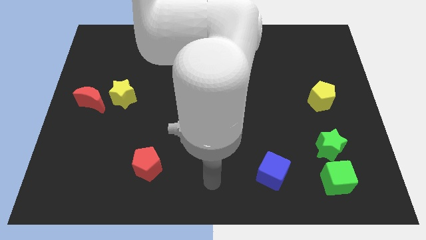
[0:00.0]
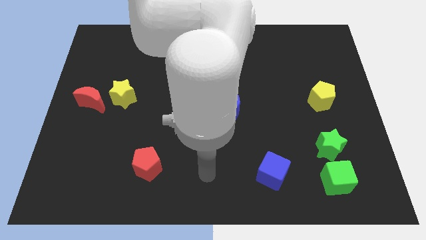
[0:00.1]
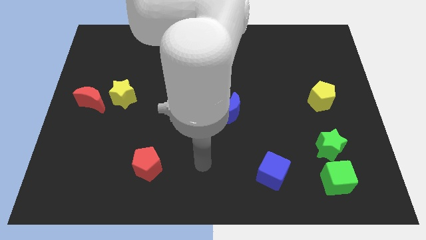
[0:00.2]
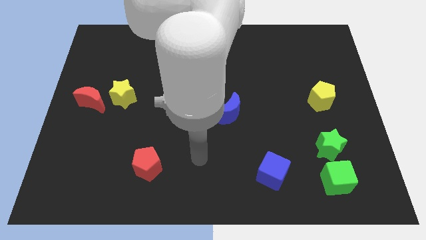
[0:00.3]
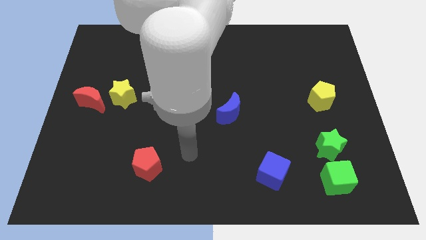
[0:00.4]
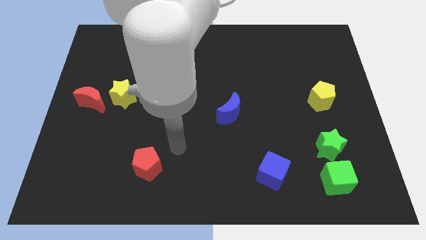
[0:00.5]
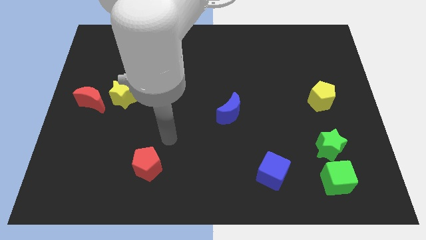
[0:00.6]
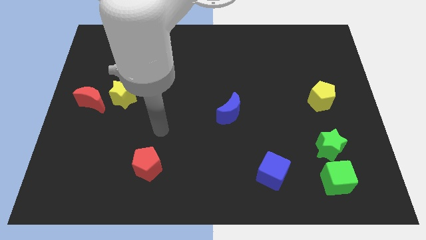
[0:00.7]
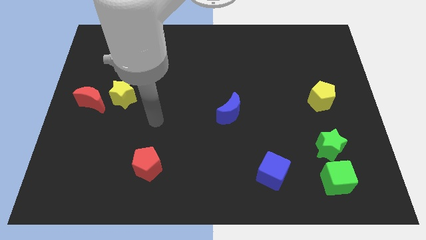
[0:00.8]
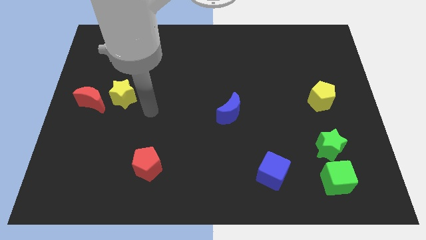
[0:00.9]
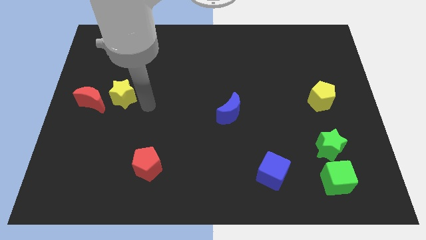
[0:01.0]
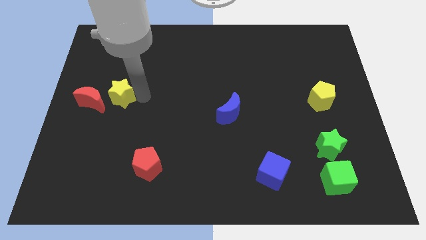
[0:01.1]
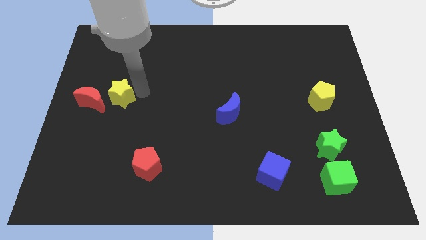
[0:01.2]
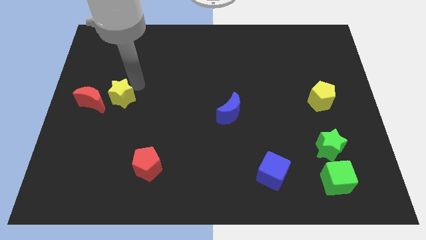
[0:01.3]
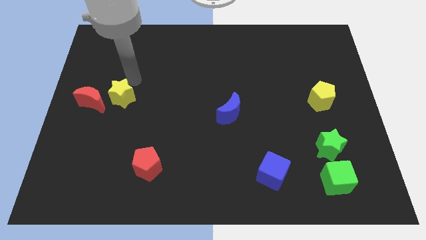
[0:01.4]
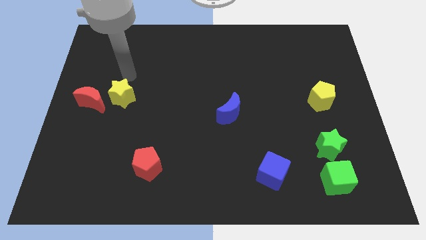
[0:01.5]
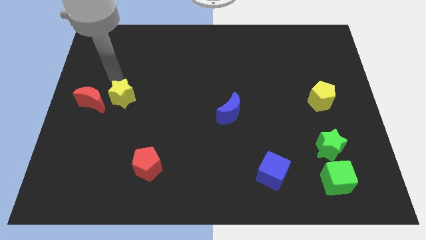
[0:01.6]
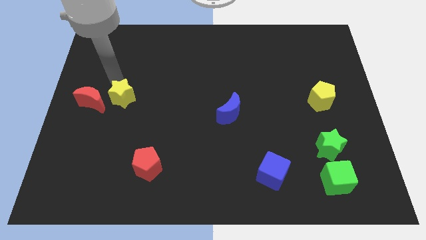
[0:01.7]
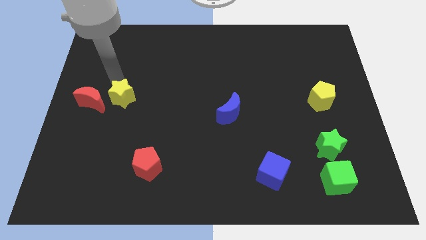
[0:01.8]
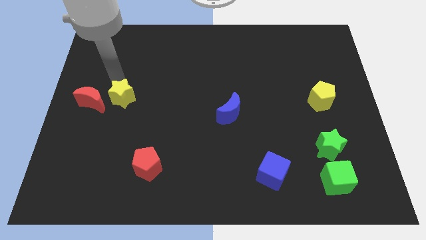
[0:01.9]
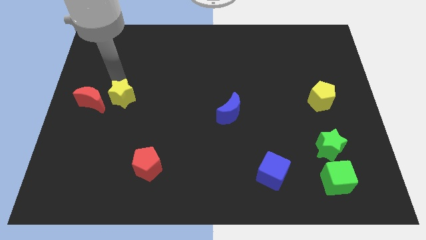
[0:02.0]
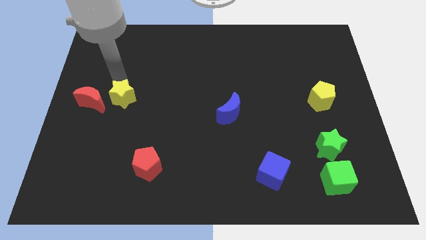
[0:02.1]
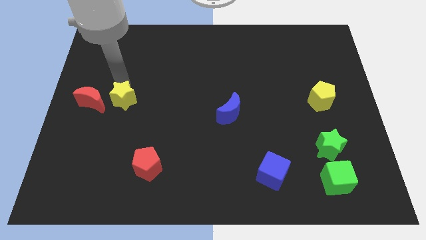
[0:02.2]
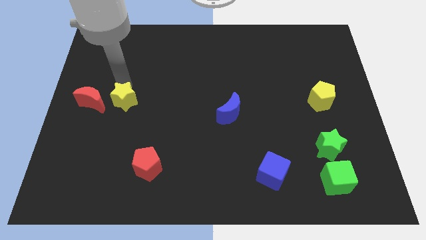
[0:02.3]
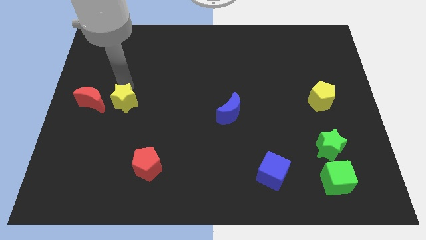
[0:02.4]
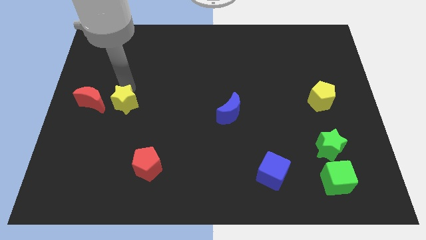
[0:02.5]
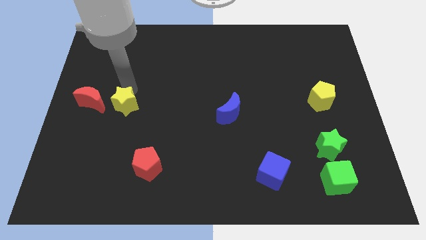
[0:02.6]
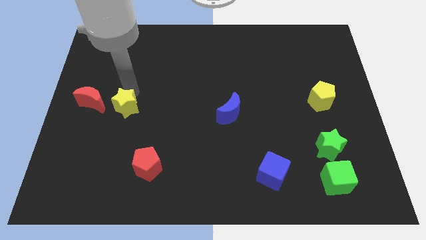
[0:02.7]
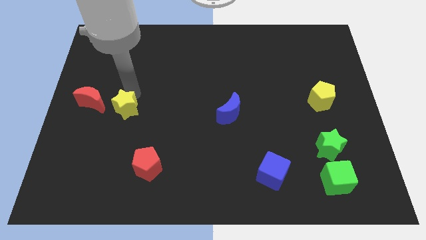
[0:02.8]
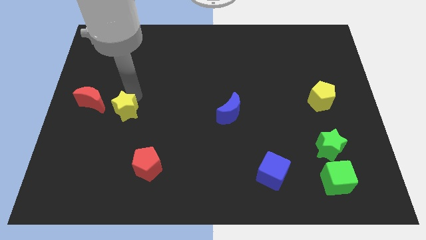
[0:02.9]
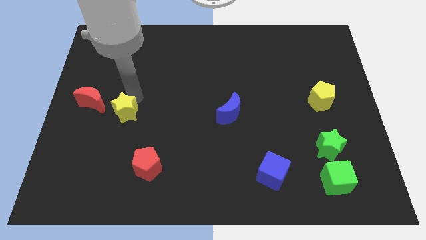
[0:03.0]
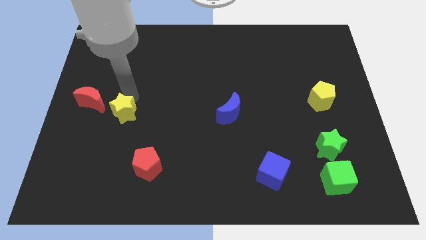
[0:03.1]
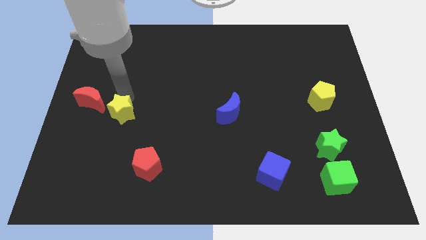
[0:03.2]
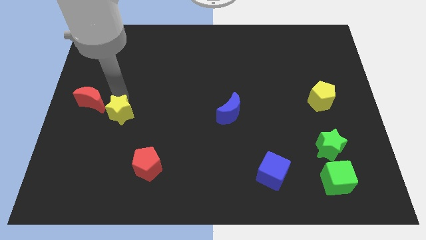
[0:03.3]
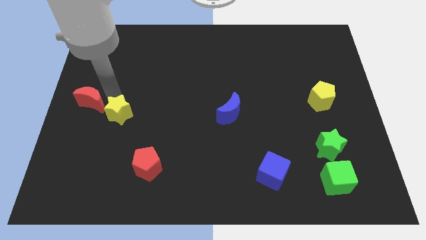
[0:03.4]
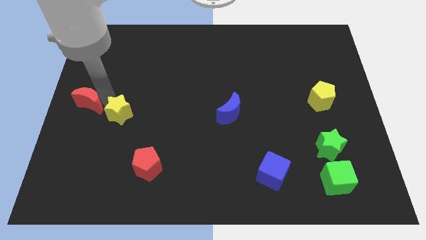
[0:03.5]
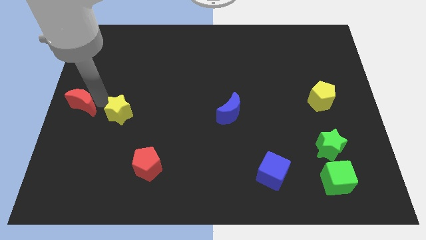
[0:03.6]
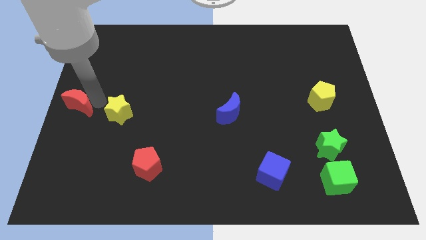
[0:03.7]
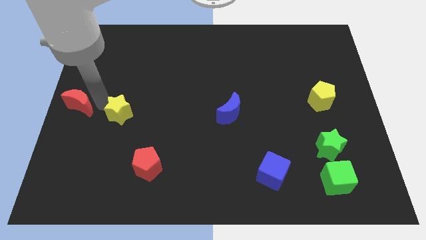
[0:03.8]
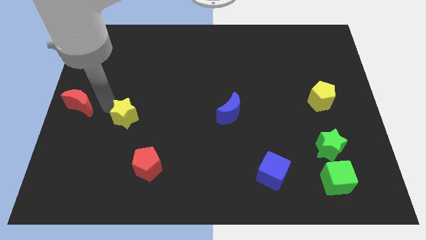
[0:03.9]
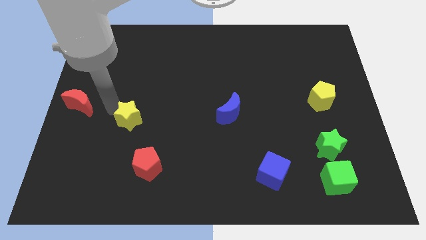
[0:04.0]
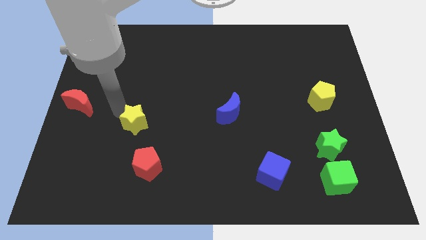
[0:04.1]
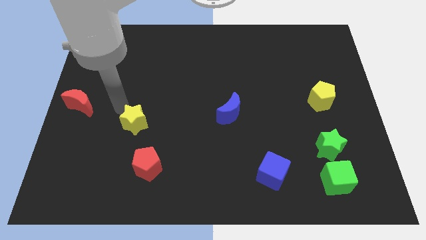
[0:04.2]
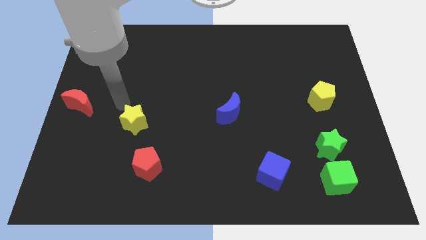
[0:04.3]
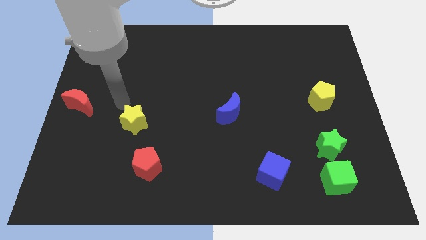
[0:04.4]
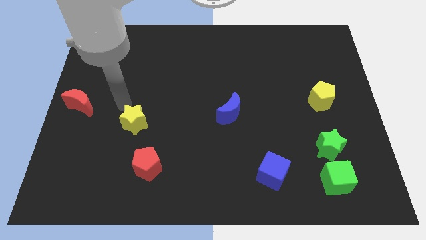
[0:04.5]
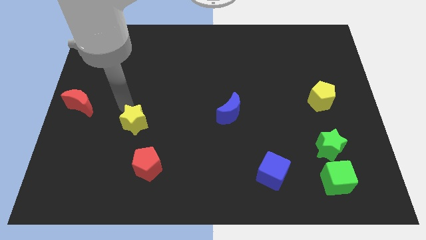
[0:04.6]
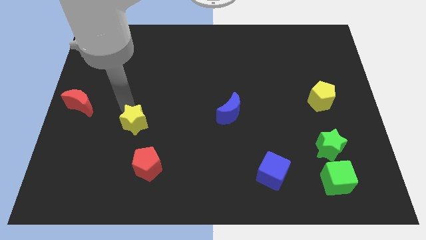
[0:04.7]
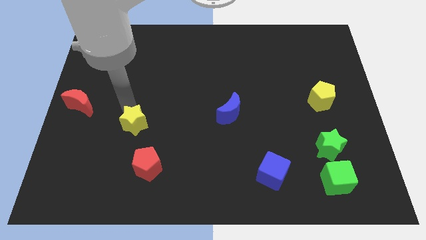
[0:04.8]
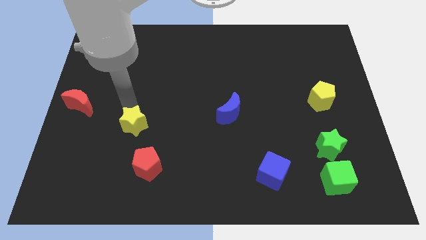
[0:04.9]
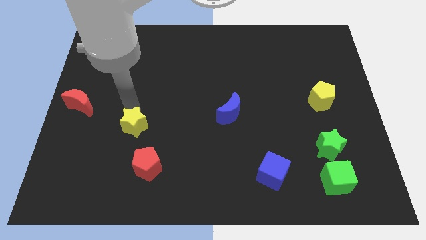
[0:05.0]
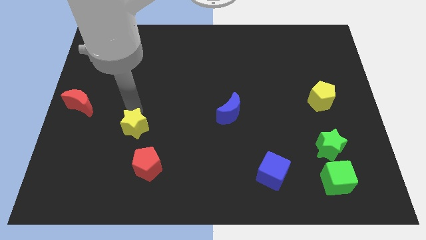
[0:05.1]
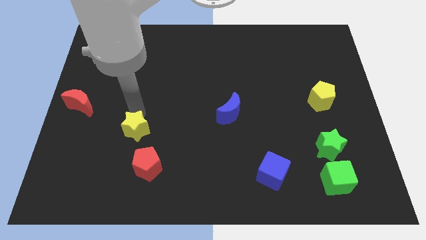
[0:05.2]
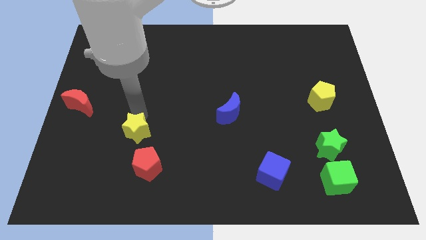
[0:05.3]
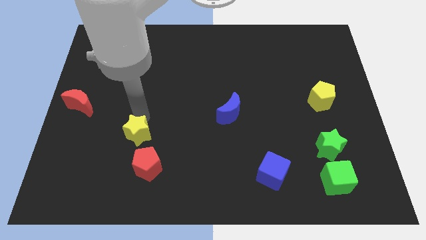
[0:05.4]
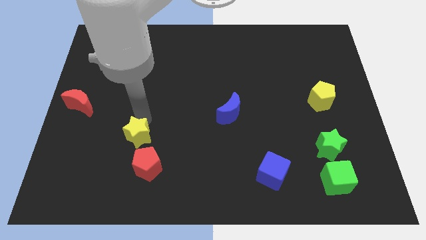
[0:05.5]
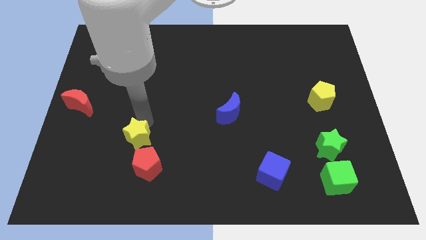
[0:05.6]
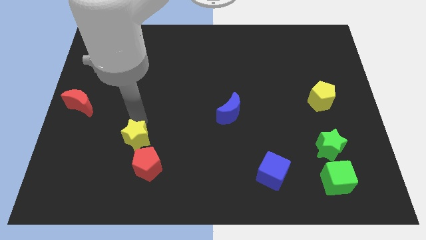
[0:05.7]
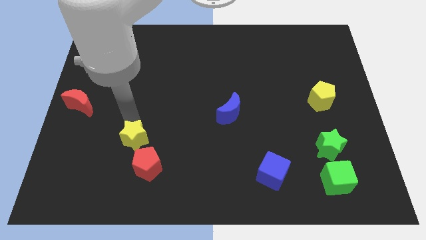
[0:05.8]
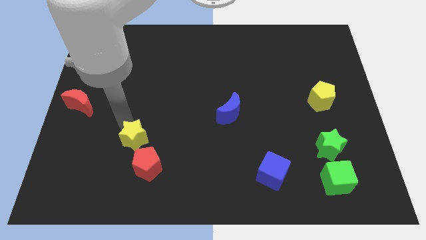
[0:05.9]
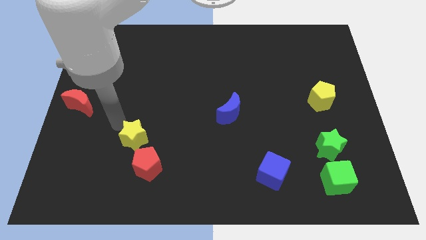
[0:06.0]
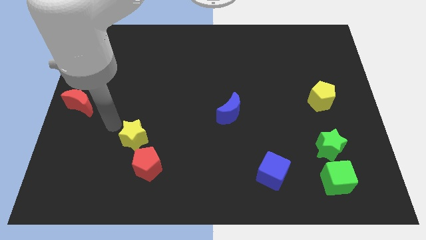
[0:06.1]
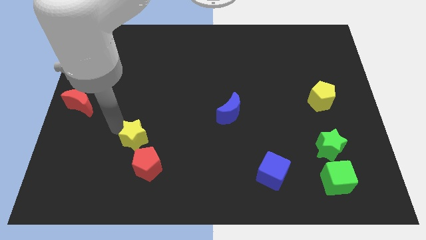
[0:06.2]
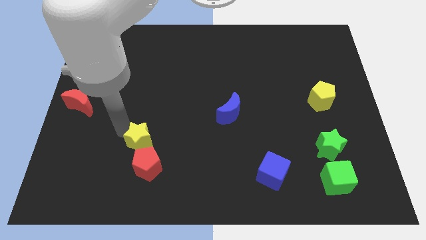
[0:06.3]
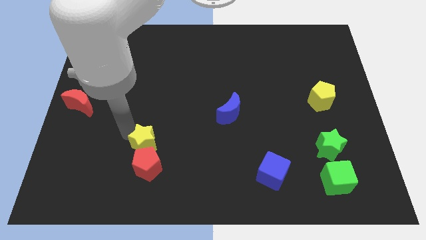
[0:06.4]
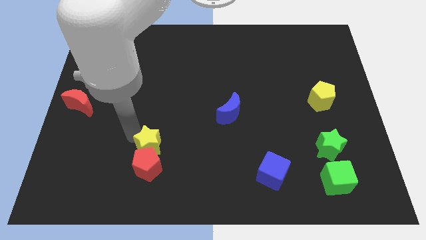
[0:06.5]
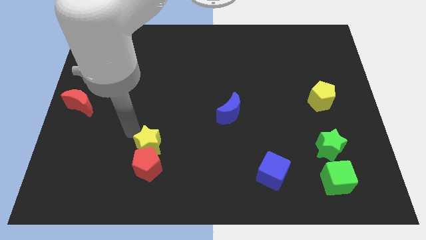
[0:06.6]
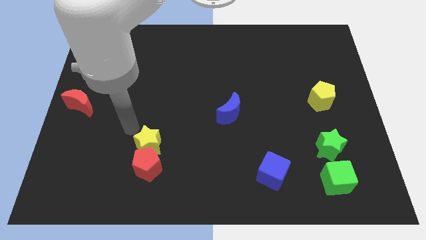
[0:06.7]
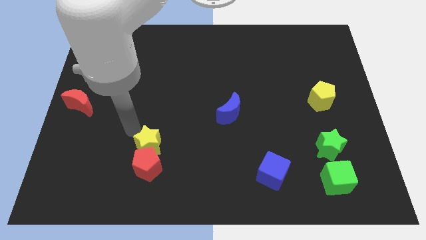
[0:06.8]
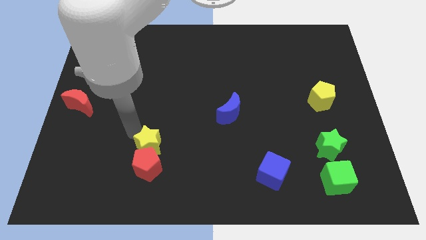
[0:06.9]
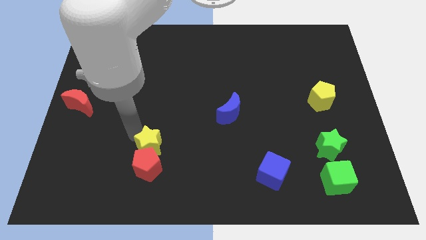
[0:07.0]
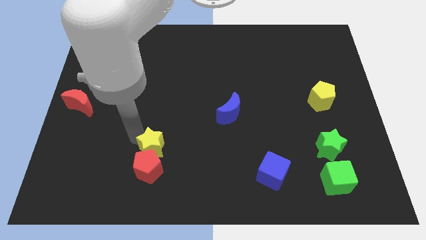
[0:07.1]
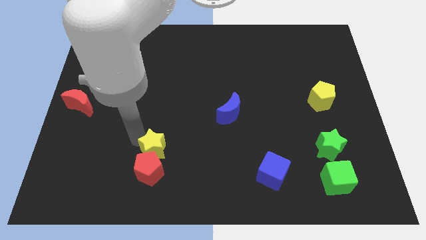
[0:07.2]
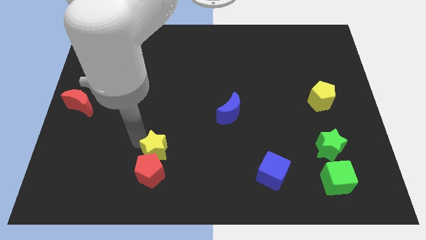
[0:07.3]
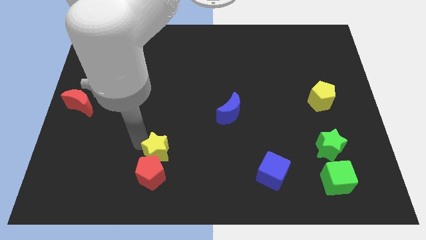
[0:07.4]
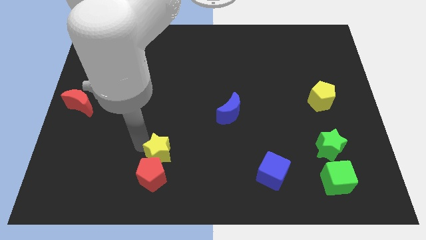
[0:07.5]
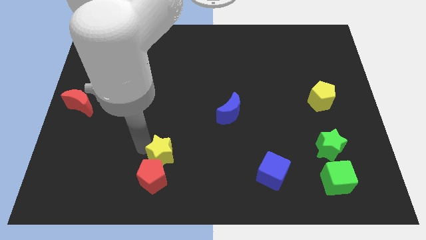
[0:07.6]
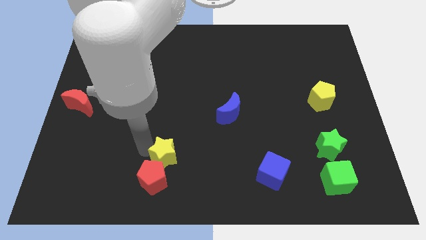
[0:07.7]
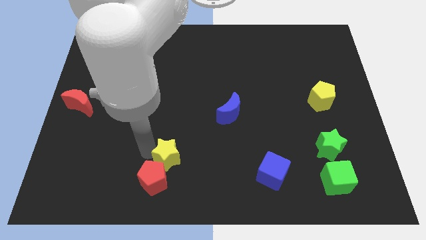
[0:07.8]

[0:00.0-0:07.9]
move the yellow star diagonally down and right
